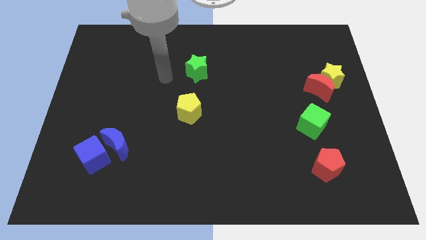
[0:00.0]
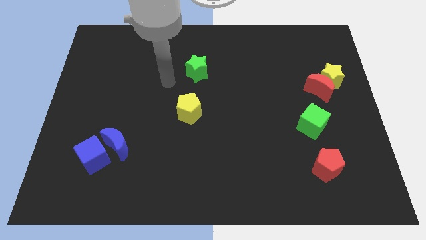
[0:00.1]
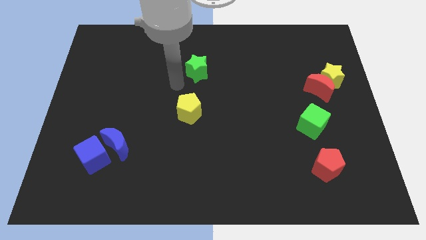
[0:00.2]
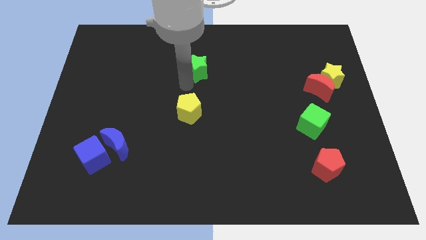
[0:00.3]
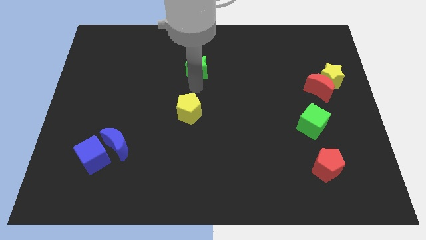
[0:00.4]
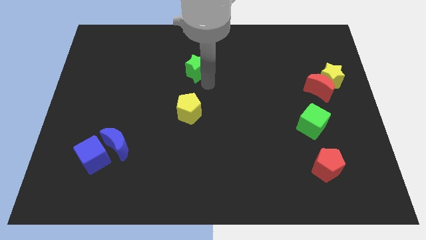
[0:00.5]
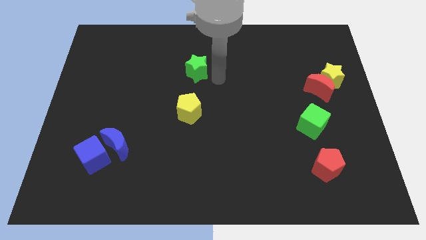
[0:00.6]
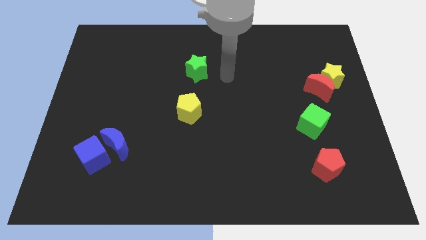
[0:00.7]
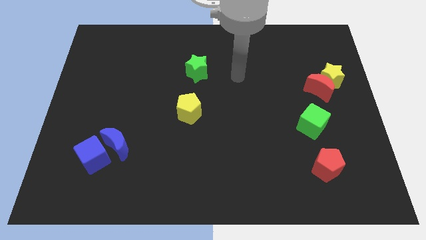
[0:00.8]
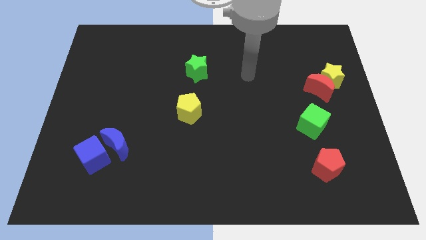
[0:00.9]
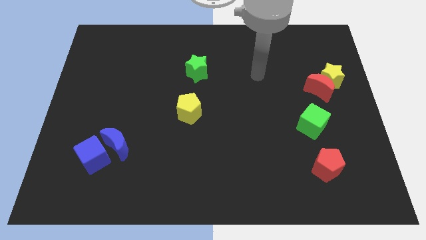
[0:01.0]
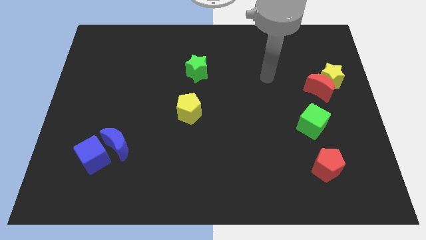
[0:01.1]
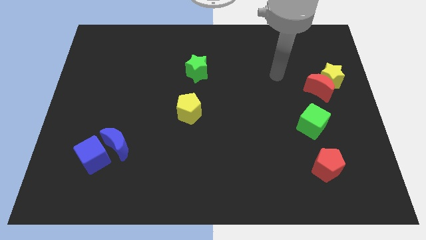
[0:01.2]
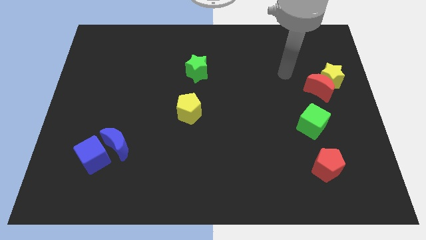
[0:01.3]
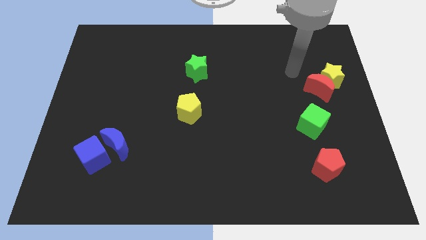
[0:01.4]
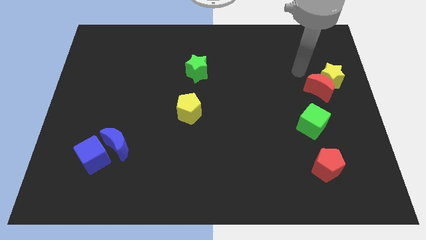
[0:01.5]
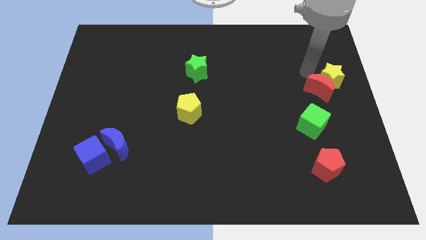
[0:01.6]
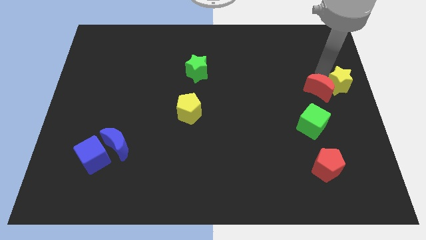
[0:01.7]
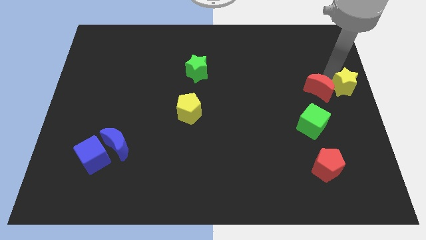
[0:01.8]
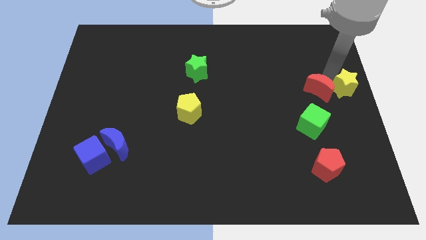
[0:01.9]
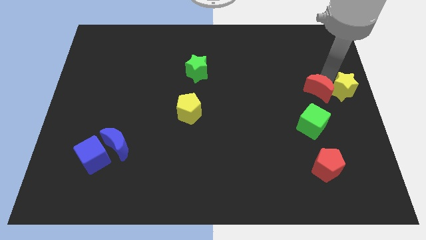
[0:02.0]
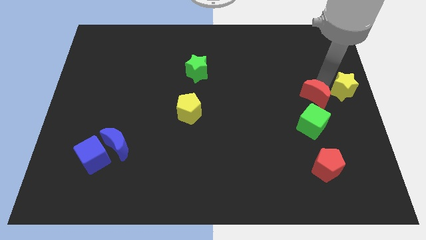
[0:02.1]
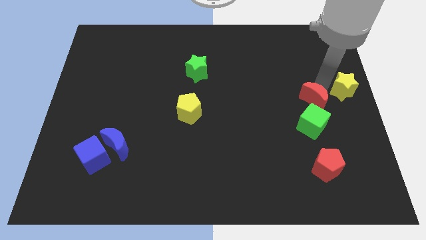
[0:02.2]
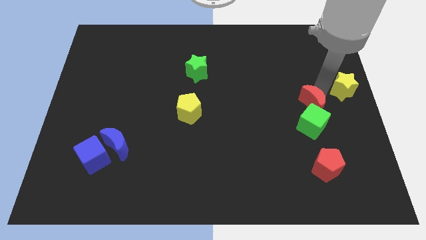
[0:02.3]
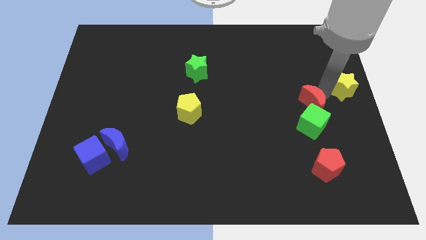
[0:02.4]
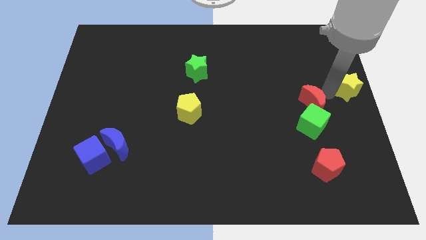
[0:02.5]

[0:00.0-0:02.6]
pull the red moon apart from the yellow star

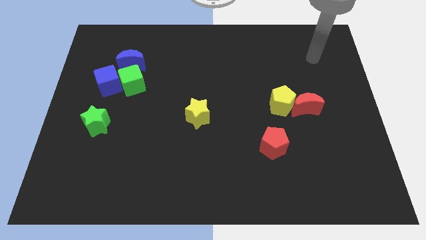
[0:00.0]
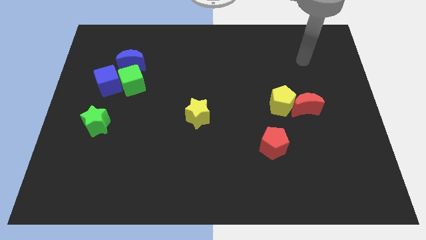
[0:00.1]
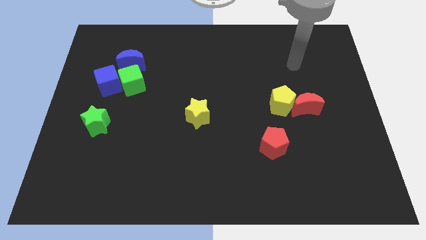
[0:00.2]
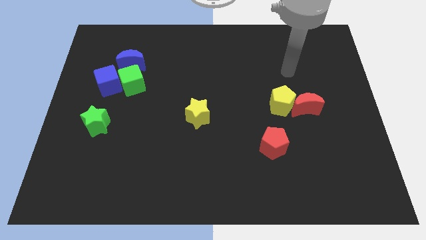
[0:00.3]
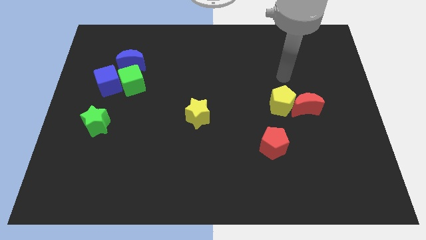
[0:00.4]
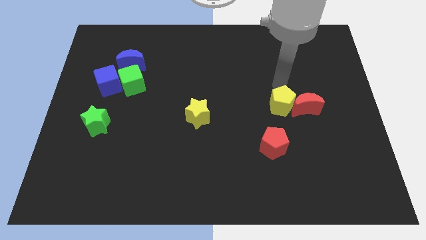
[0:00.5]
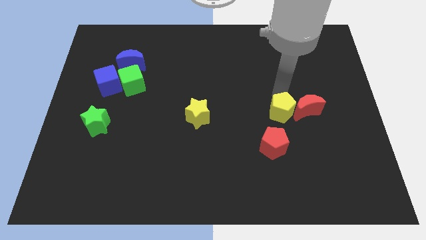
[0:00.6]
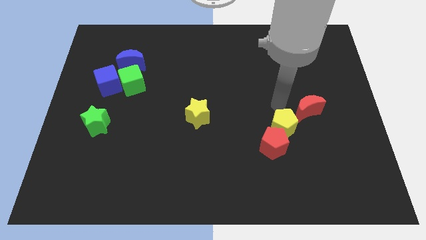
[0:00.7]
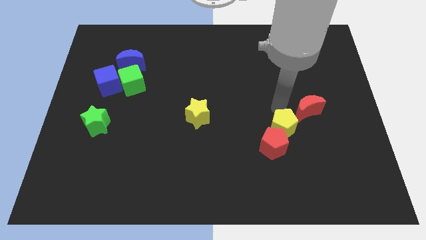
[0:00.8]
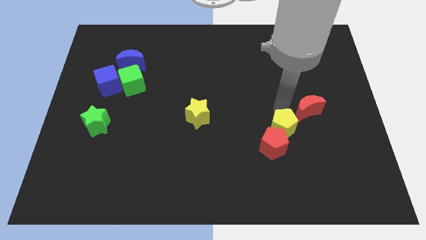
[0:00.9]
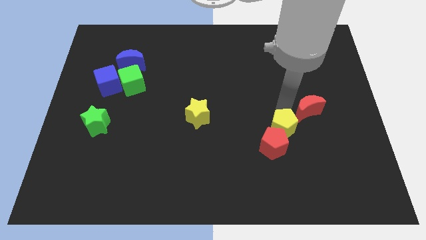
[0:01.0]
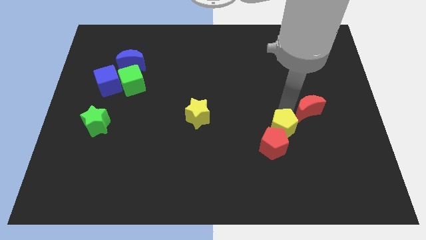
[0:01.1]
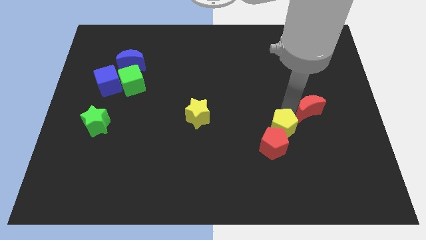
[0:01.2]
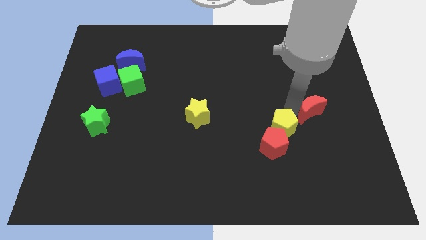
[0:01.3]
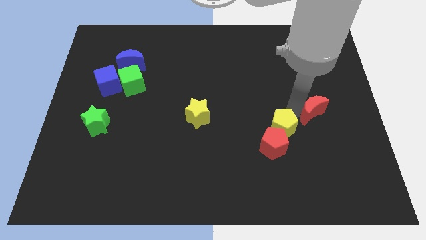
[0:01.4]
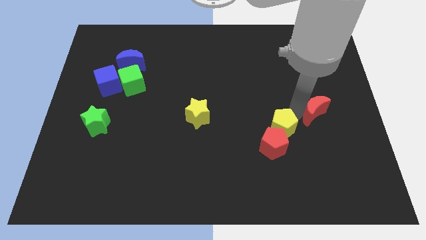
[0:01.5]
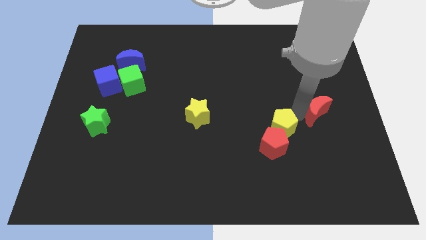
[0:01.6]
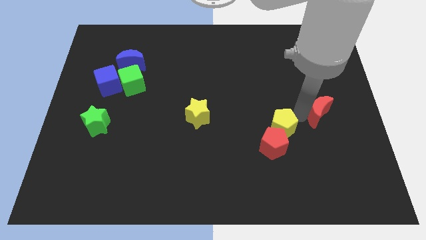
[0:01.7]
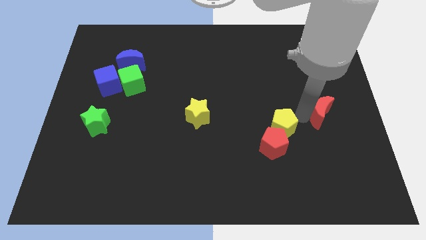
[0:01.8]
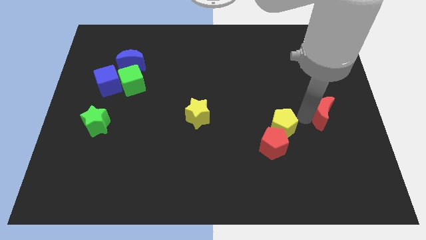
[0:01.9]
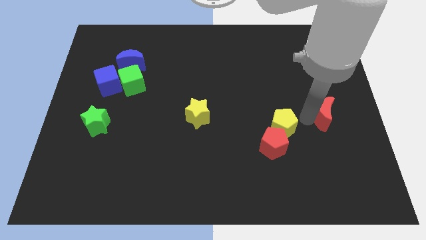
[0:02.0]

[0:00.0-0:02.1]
pull the red moon apart from the yellow pentagon

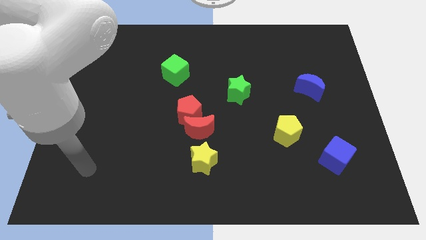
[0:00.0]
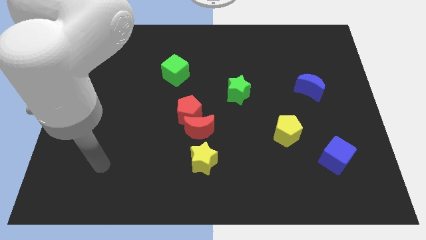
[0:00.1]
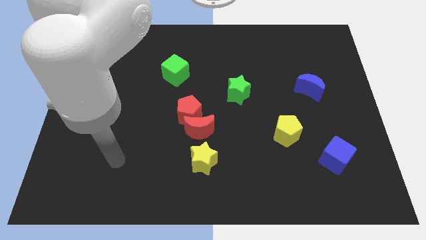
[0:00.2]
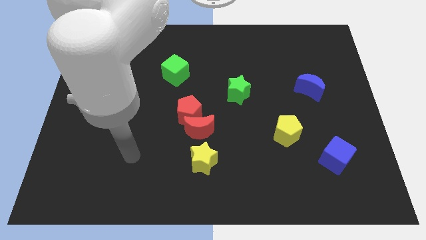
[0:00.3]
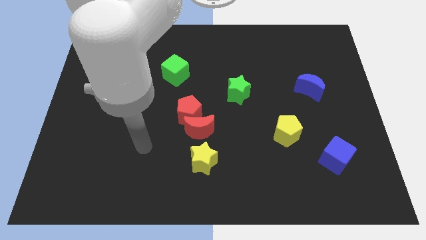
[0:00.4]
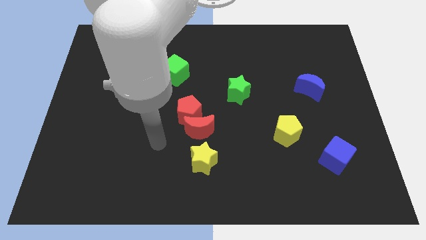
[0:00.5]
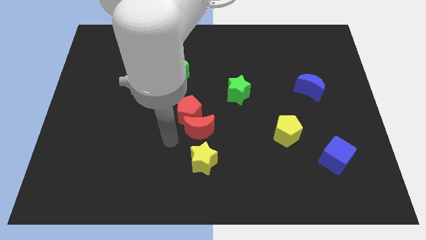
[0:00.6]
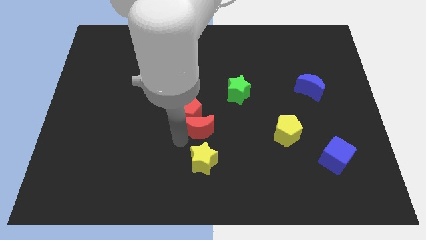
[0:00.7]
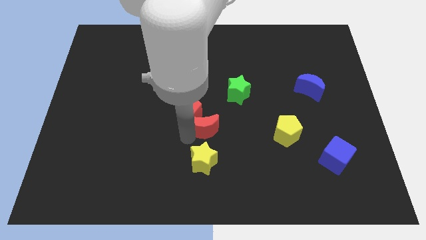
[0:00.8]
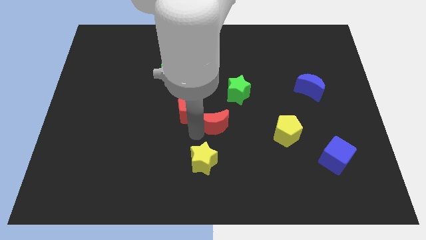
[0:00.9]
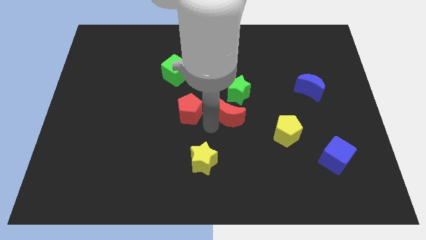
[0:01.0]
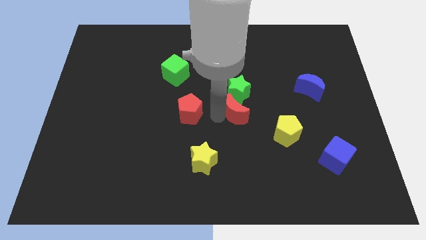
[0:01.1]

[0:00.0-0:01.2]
separate the red pentagon from the red moon

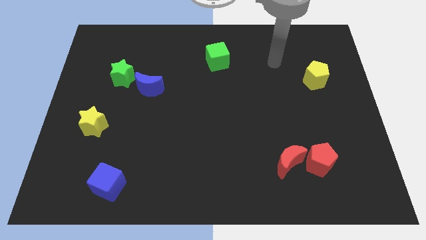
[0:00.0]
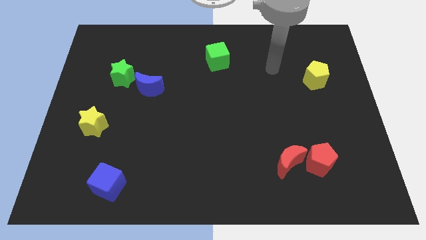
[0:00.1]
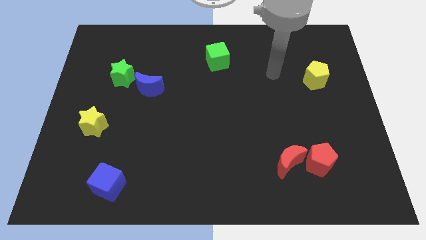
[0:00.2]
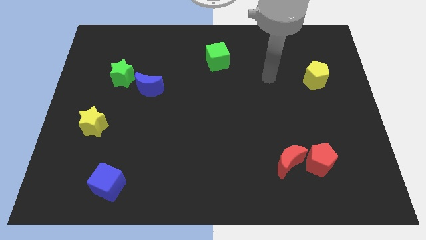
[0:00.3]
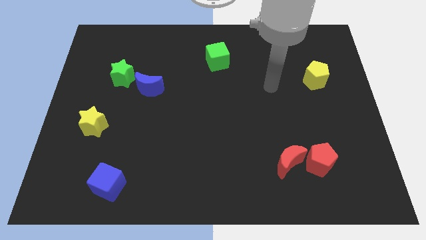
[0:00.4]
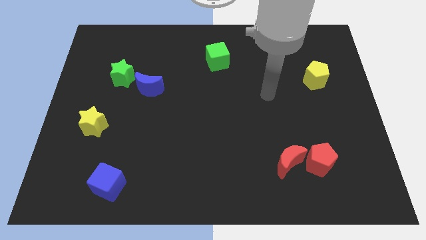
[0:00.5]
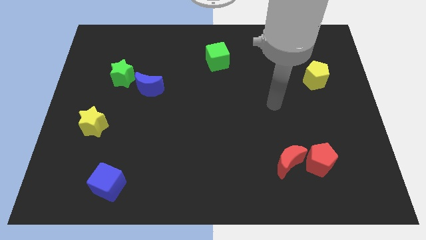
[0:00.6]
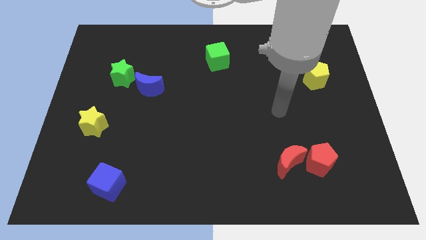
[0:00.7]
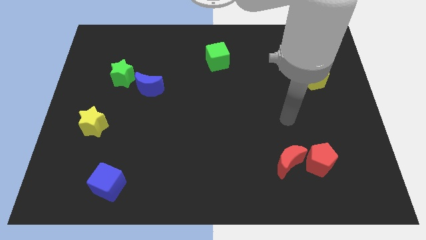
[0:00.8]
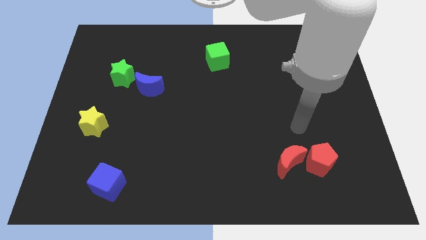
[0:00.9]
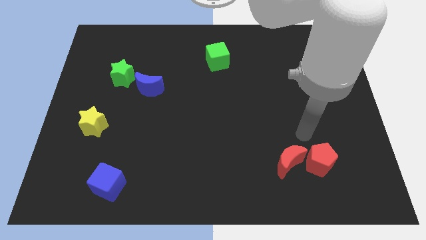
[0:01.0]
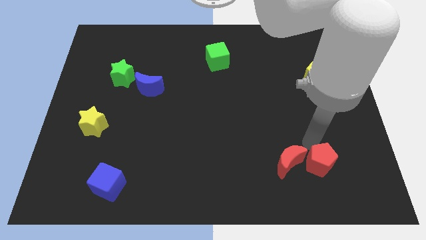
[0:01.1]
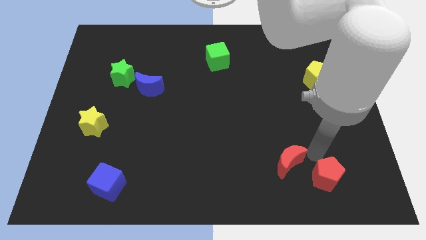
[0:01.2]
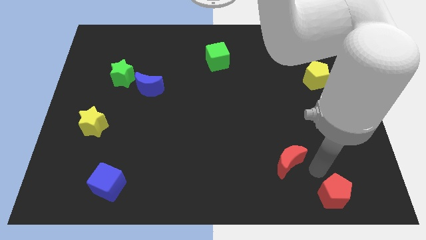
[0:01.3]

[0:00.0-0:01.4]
separate the red moon from the red pentagon

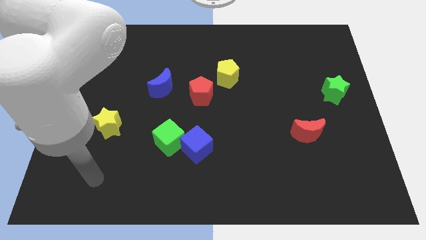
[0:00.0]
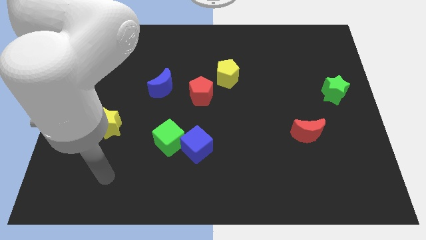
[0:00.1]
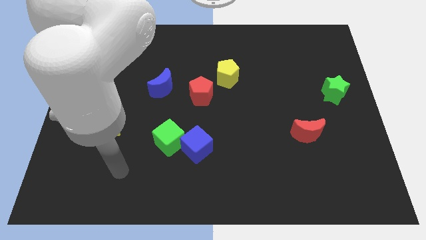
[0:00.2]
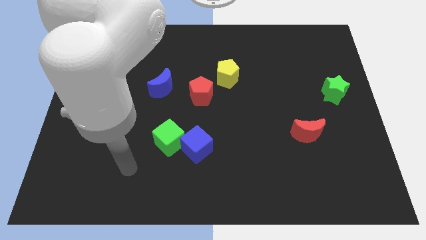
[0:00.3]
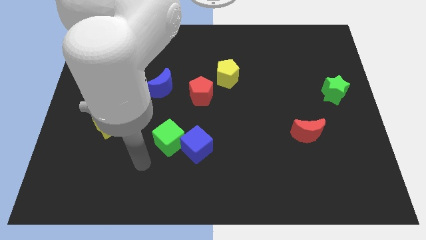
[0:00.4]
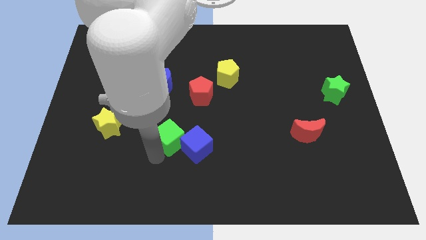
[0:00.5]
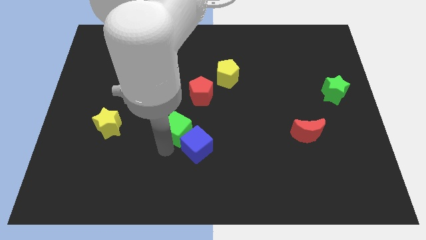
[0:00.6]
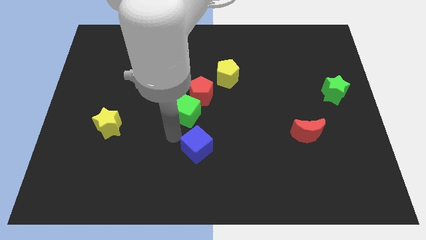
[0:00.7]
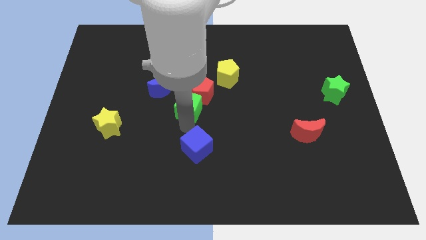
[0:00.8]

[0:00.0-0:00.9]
move the blue cube away from the green cube

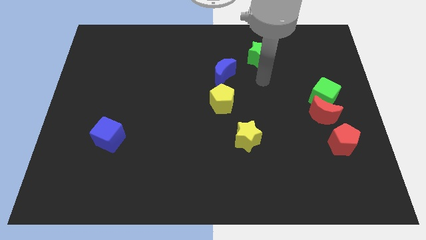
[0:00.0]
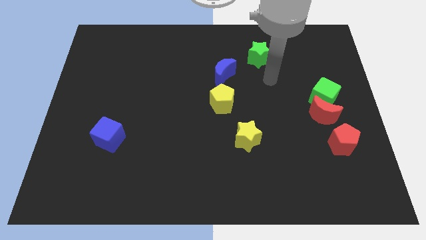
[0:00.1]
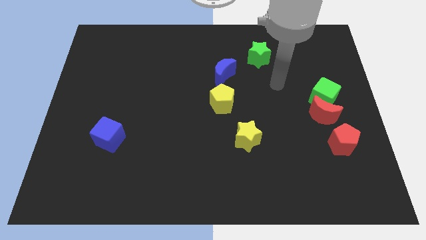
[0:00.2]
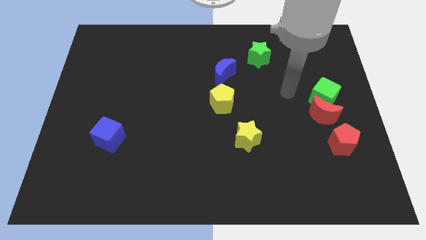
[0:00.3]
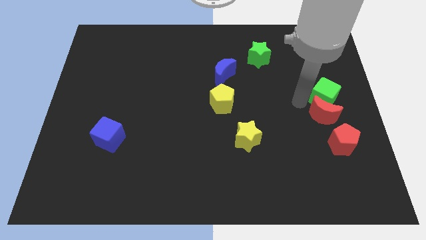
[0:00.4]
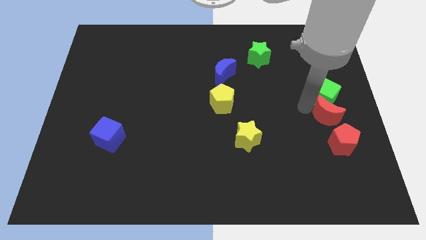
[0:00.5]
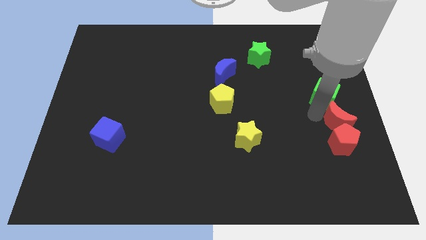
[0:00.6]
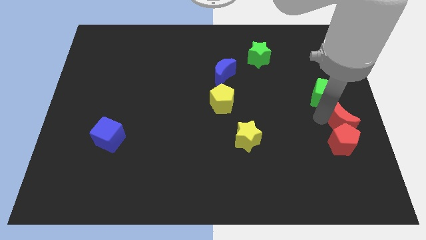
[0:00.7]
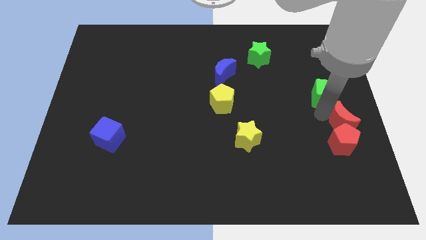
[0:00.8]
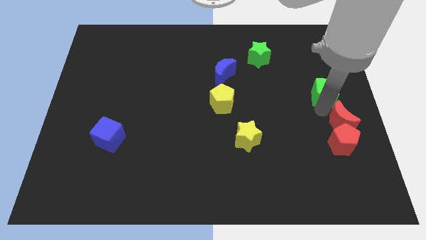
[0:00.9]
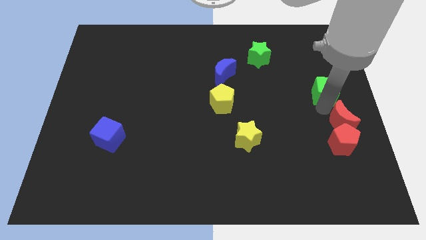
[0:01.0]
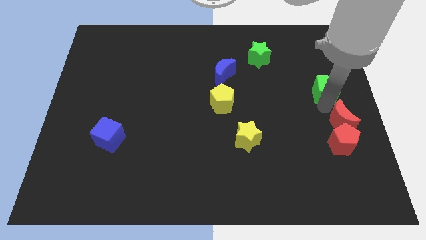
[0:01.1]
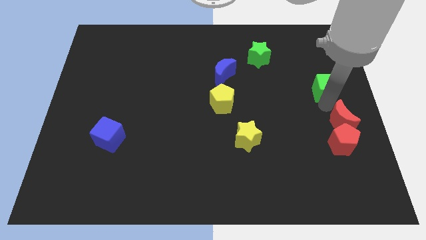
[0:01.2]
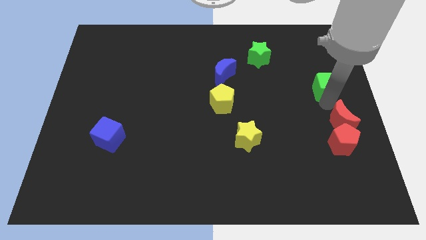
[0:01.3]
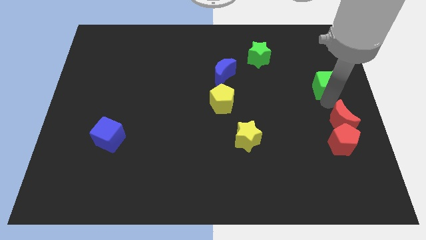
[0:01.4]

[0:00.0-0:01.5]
move the green cube away from the red moon
